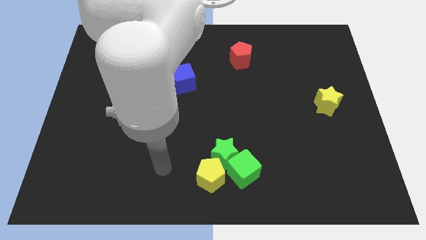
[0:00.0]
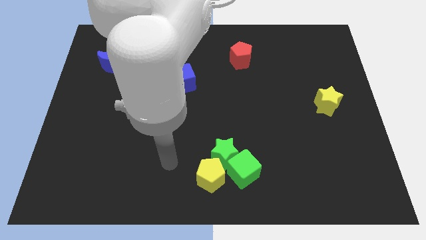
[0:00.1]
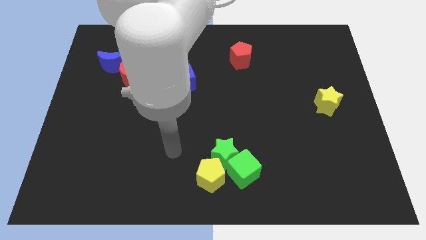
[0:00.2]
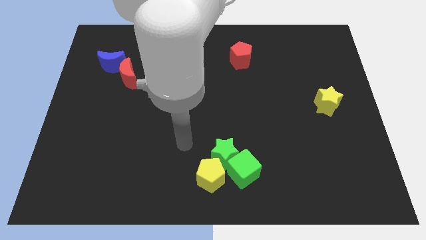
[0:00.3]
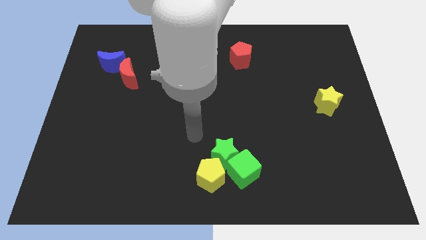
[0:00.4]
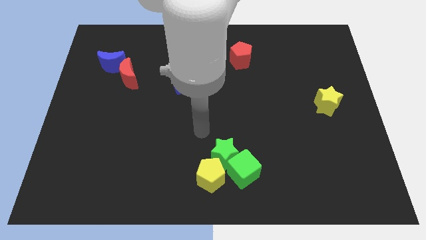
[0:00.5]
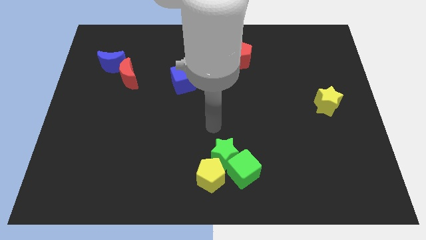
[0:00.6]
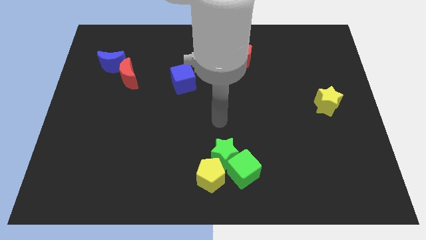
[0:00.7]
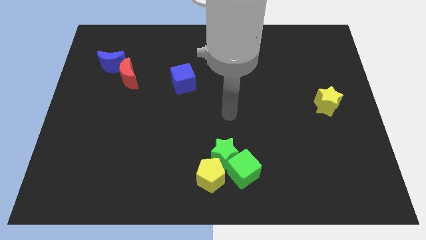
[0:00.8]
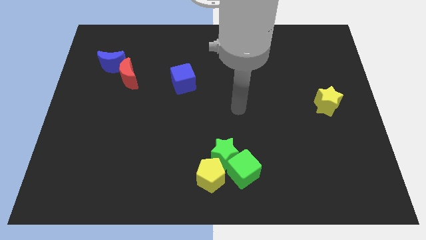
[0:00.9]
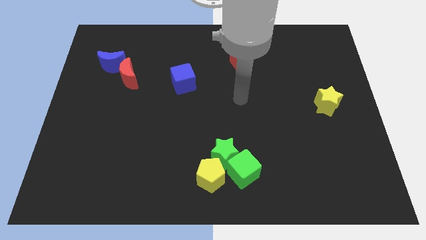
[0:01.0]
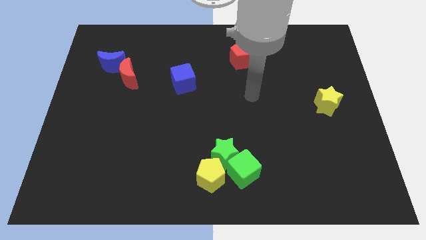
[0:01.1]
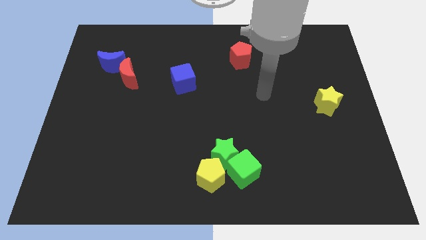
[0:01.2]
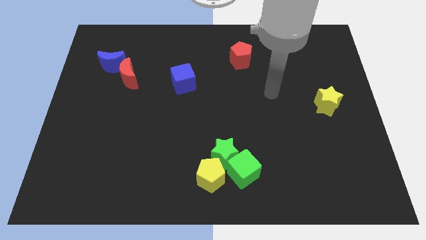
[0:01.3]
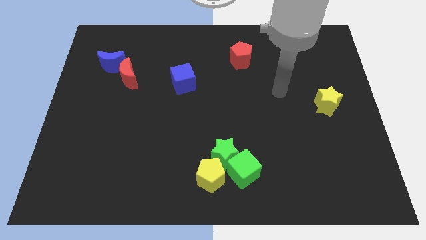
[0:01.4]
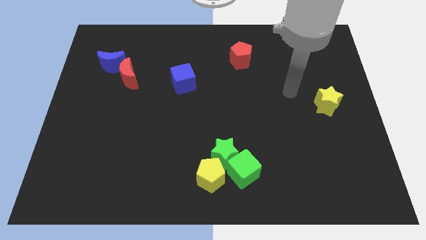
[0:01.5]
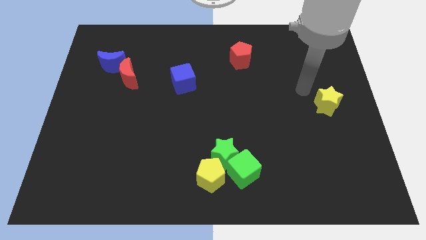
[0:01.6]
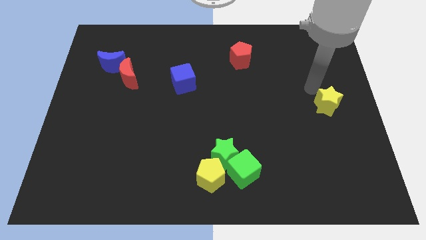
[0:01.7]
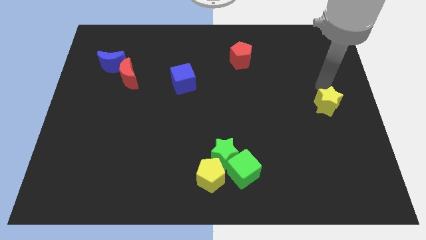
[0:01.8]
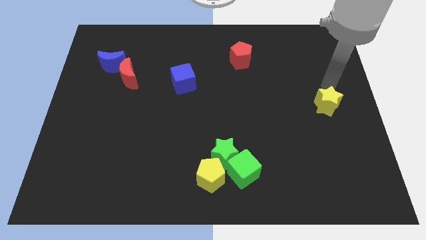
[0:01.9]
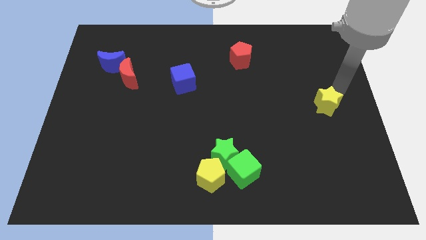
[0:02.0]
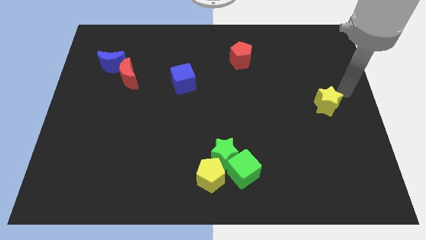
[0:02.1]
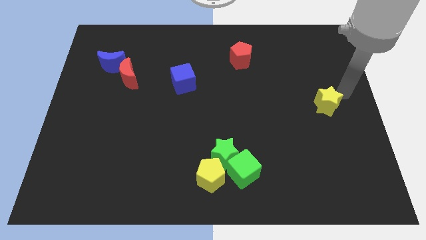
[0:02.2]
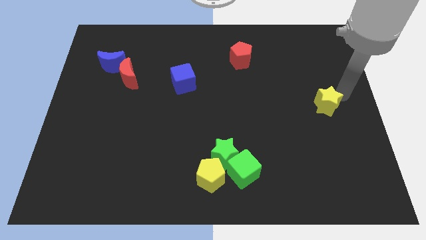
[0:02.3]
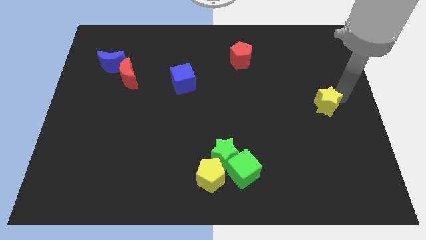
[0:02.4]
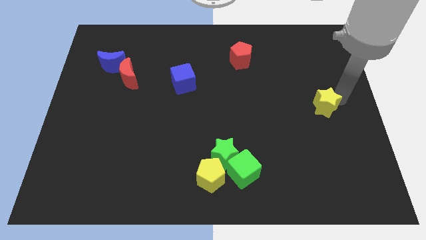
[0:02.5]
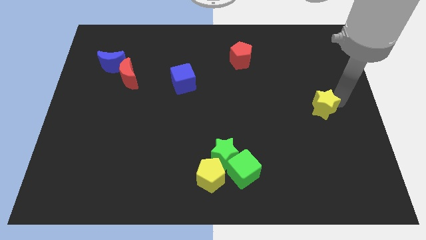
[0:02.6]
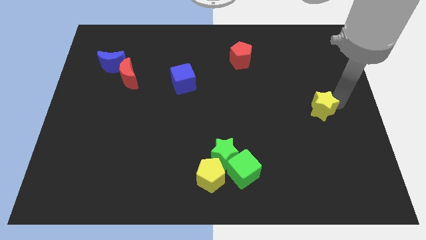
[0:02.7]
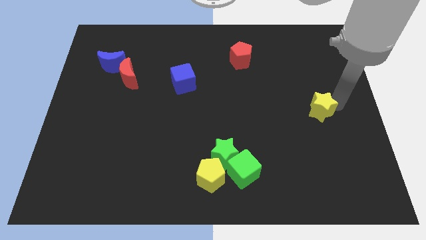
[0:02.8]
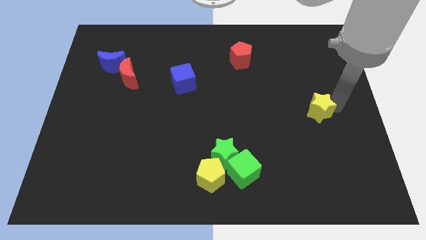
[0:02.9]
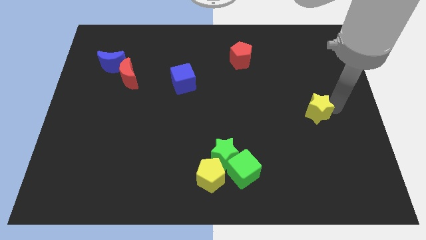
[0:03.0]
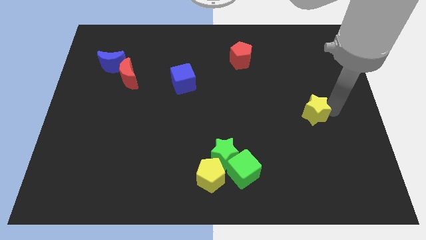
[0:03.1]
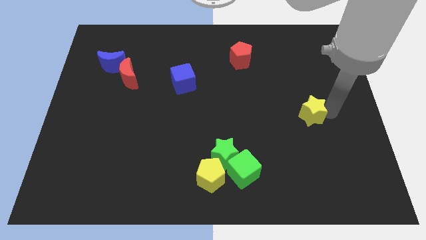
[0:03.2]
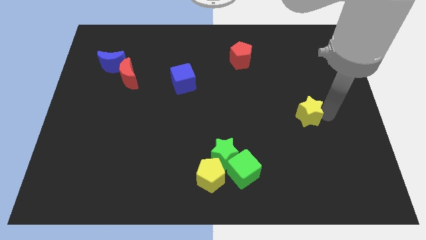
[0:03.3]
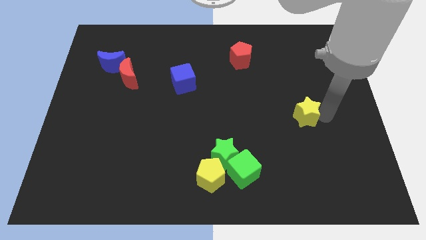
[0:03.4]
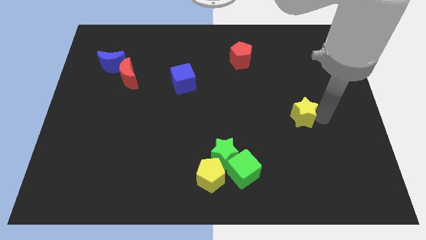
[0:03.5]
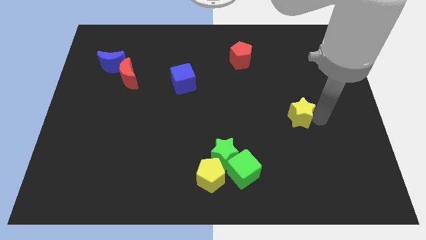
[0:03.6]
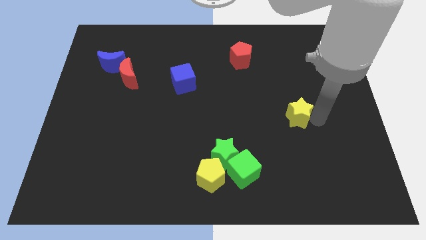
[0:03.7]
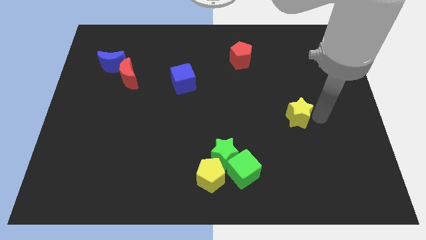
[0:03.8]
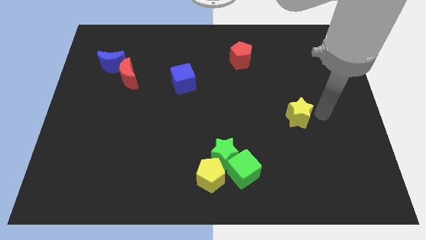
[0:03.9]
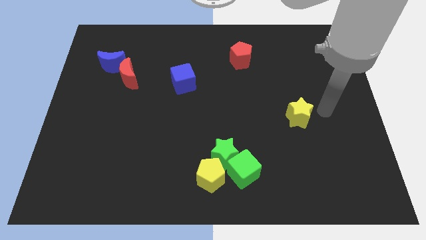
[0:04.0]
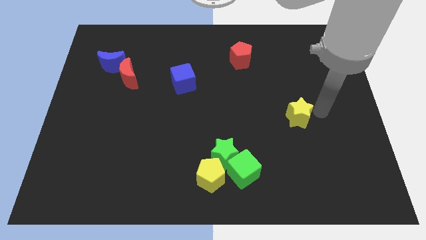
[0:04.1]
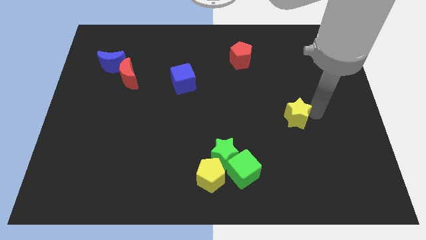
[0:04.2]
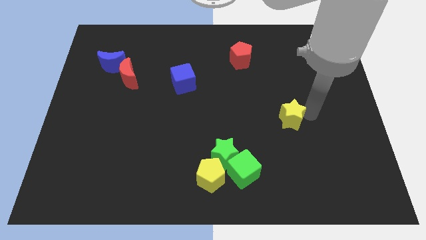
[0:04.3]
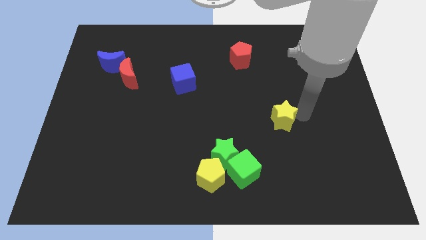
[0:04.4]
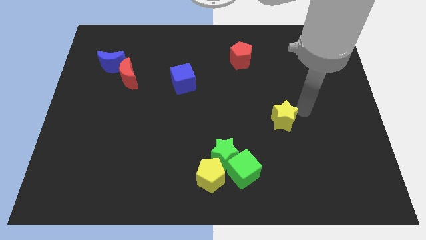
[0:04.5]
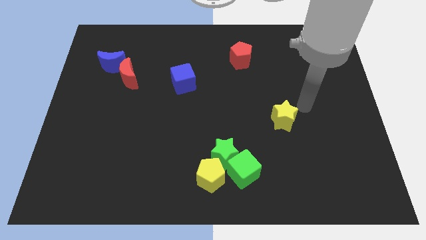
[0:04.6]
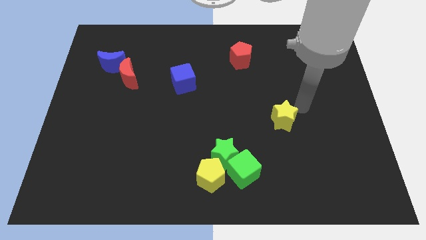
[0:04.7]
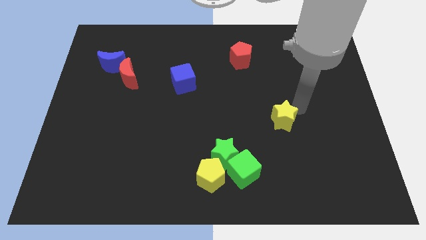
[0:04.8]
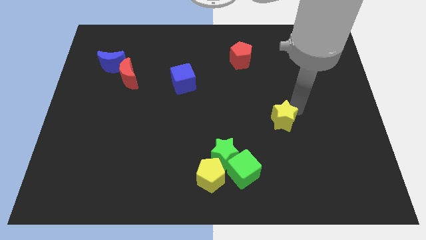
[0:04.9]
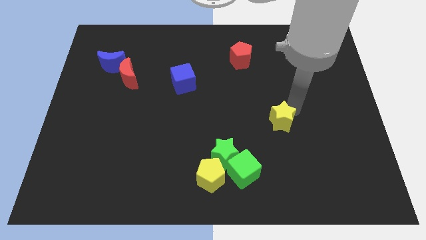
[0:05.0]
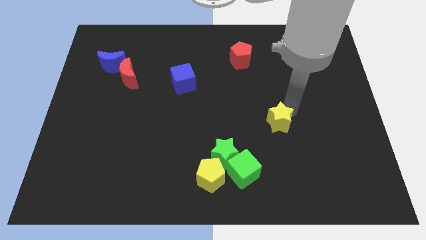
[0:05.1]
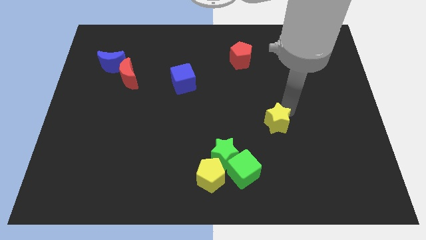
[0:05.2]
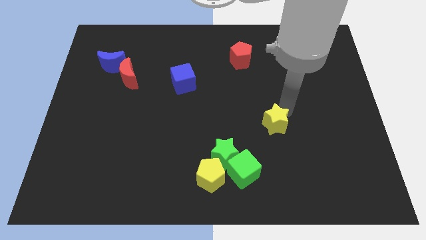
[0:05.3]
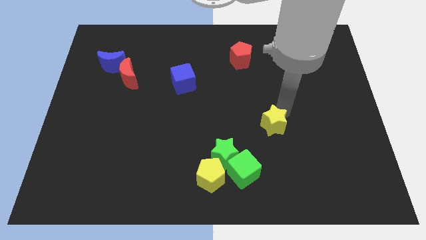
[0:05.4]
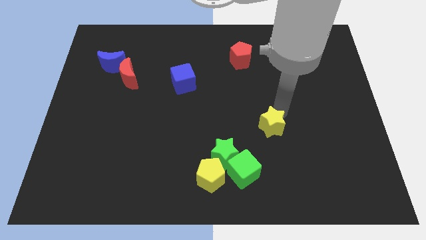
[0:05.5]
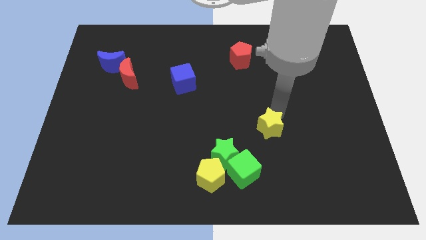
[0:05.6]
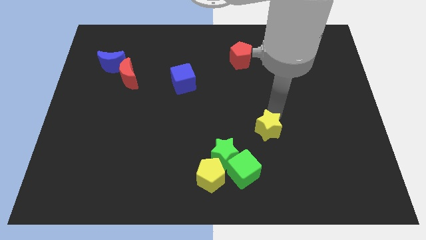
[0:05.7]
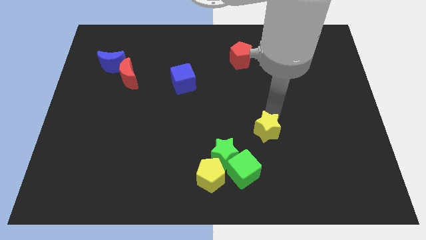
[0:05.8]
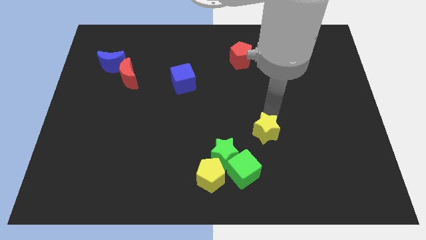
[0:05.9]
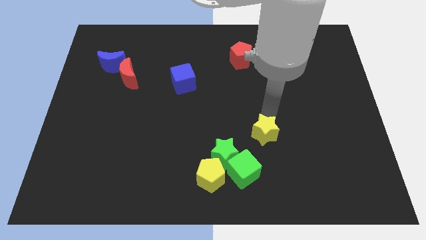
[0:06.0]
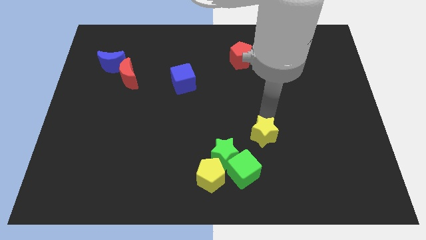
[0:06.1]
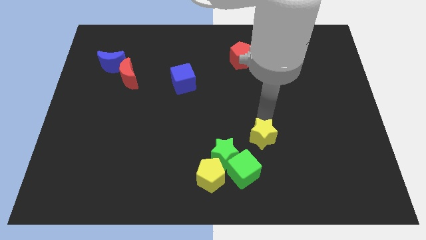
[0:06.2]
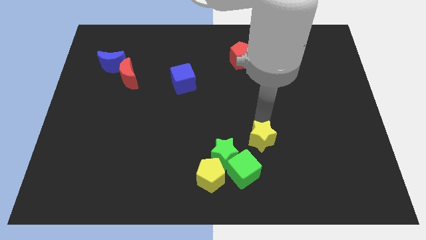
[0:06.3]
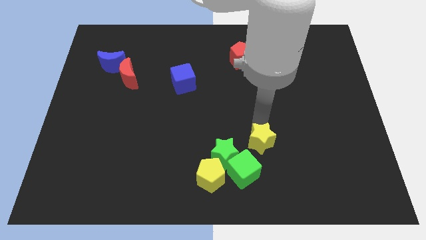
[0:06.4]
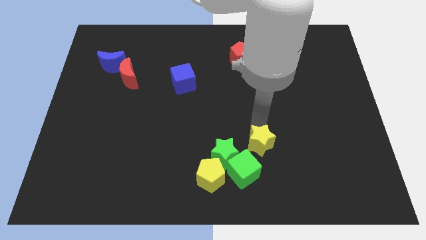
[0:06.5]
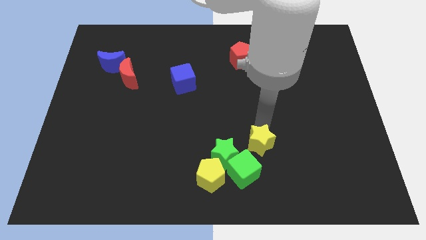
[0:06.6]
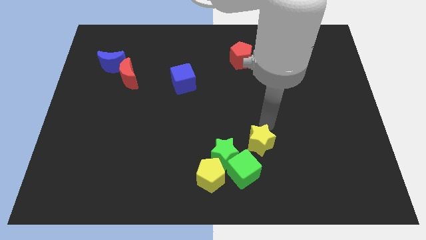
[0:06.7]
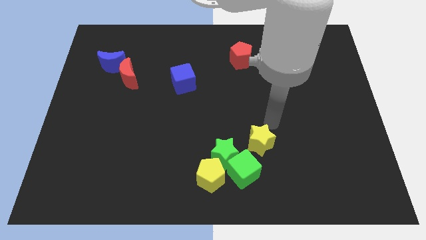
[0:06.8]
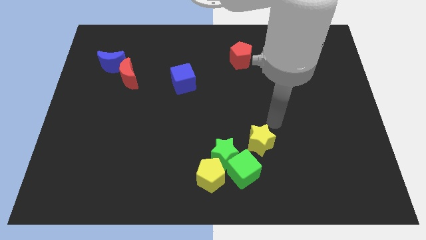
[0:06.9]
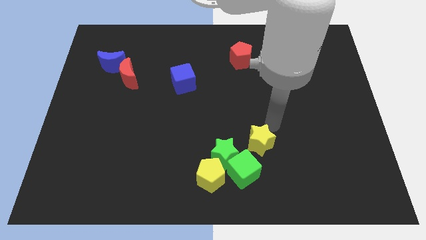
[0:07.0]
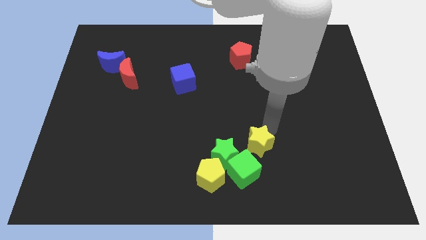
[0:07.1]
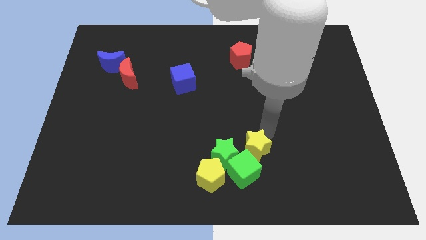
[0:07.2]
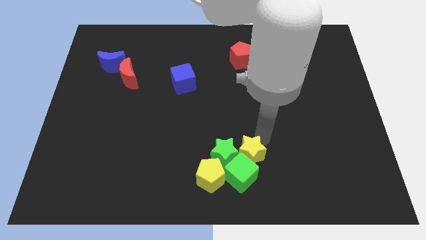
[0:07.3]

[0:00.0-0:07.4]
move the yellow star to the green cube

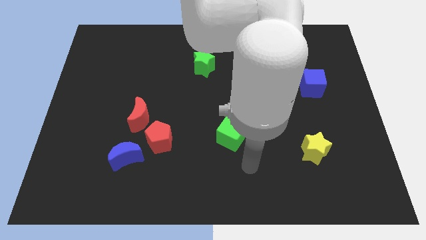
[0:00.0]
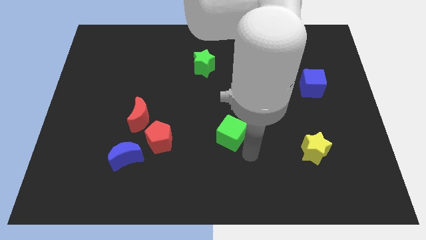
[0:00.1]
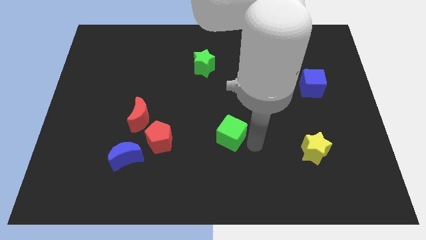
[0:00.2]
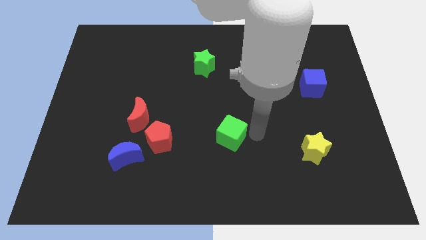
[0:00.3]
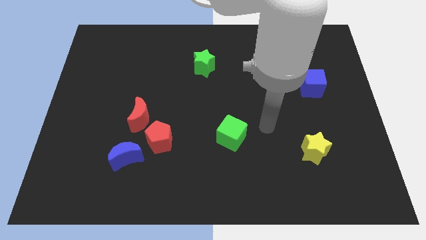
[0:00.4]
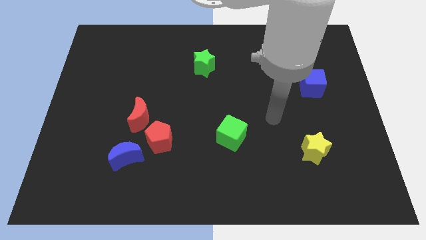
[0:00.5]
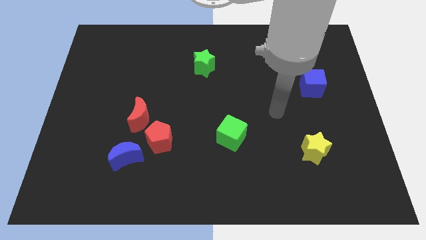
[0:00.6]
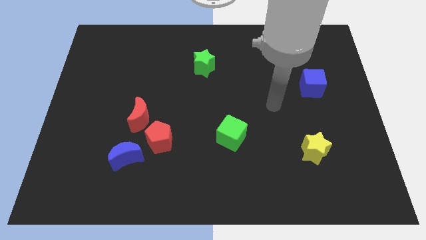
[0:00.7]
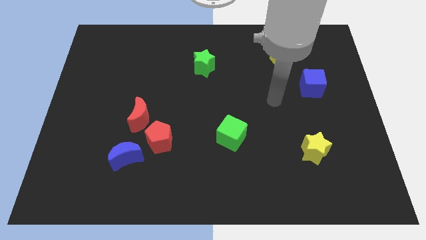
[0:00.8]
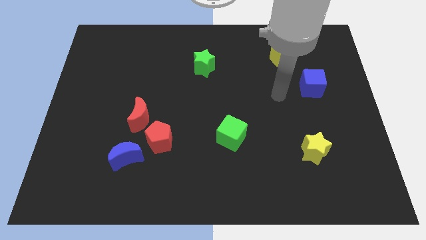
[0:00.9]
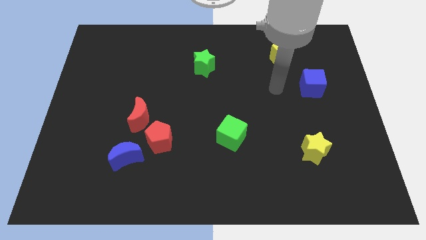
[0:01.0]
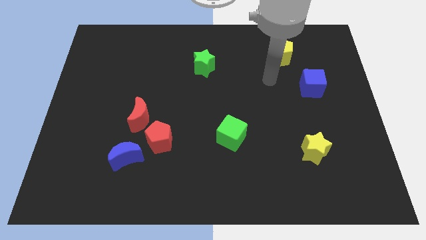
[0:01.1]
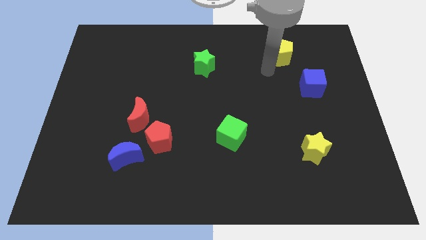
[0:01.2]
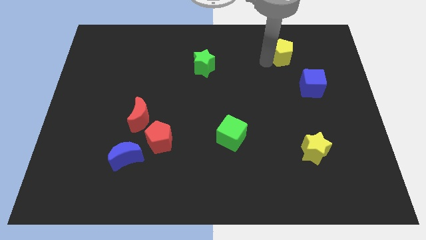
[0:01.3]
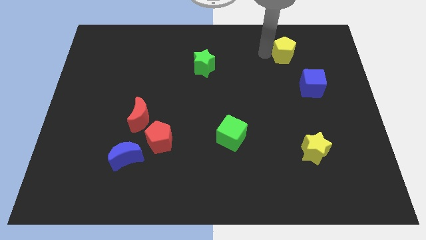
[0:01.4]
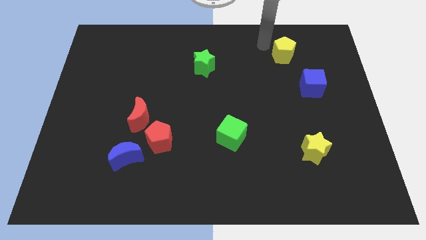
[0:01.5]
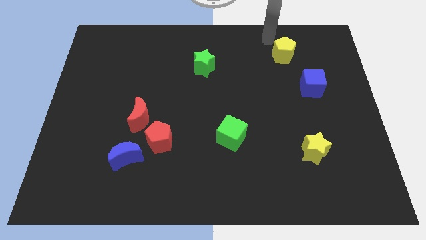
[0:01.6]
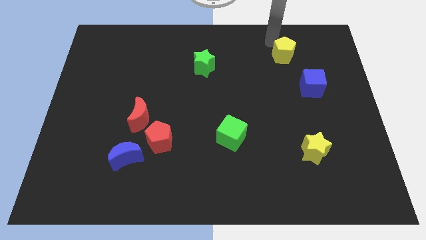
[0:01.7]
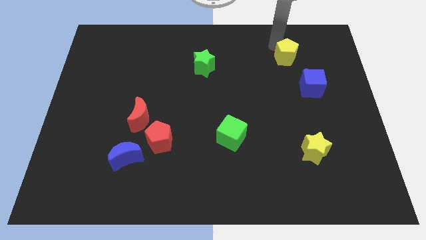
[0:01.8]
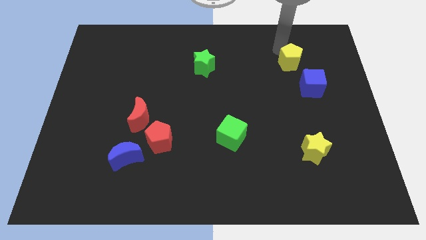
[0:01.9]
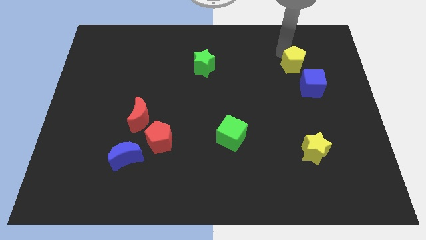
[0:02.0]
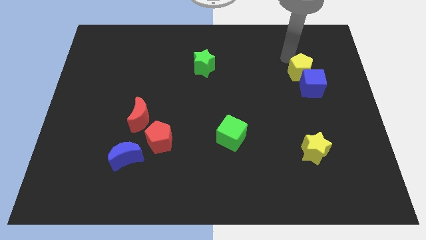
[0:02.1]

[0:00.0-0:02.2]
put the yellow pentagon next to the blue cube
